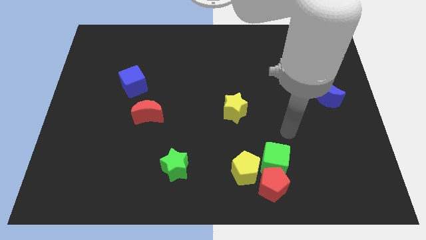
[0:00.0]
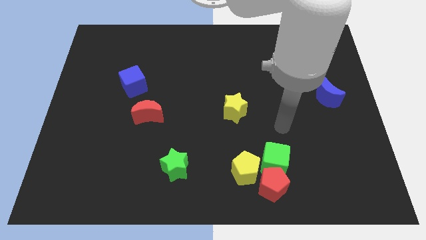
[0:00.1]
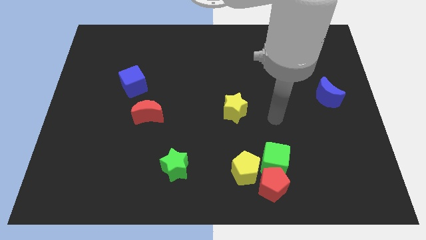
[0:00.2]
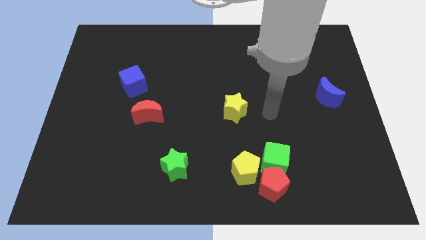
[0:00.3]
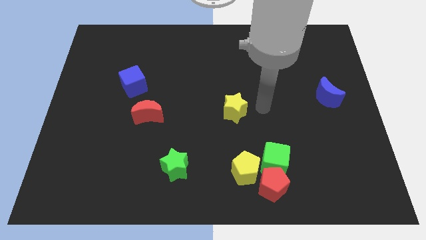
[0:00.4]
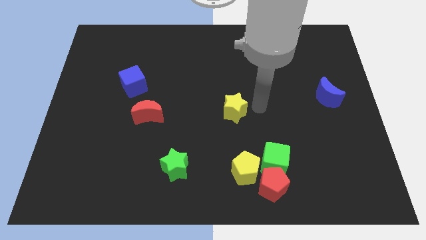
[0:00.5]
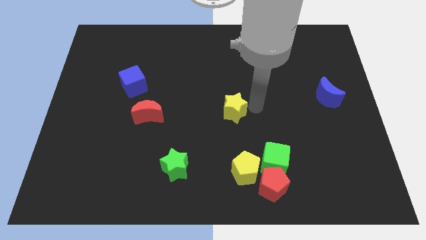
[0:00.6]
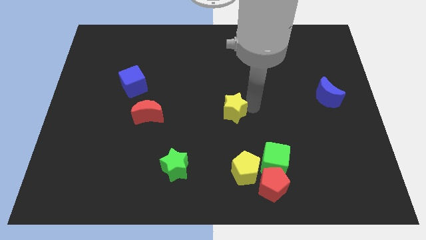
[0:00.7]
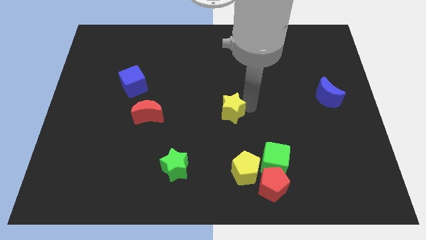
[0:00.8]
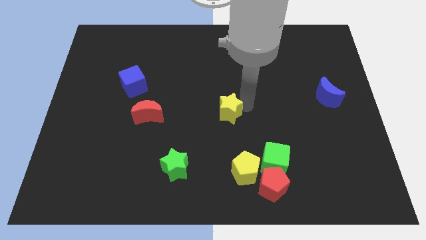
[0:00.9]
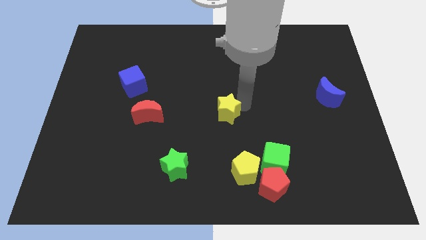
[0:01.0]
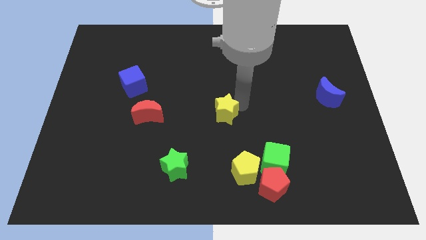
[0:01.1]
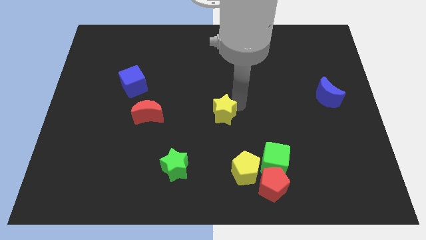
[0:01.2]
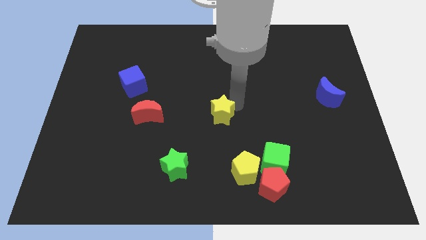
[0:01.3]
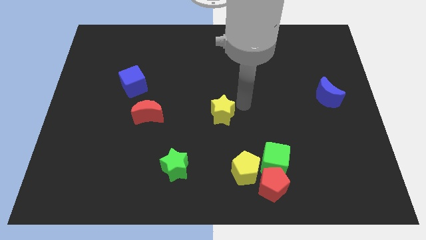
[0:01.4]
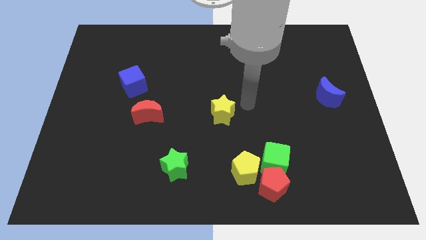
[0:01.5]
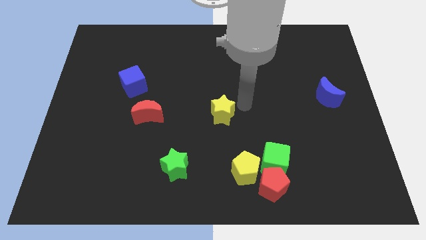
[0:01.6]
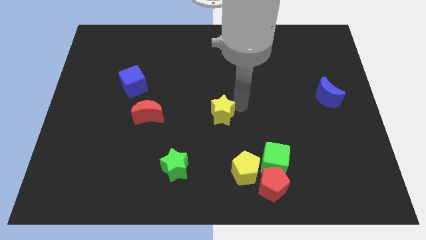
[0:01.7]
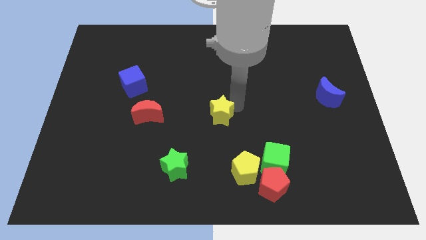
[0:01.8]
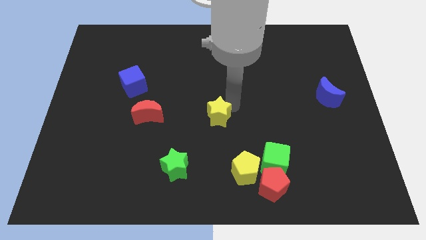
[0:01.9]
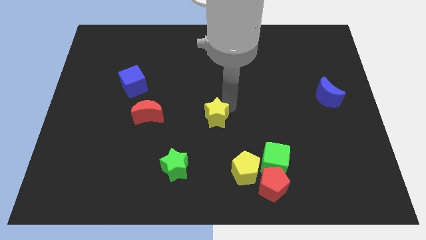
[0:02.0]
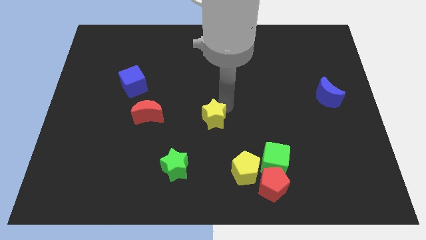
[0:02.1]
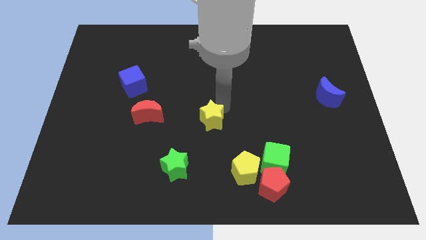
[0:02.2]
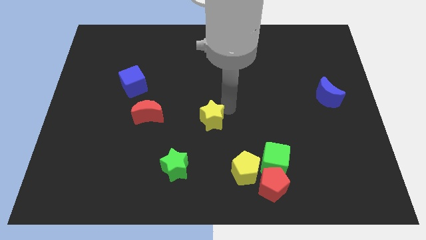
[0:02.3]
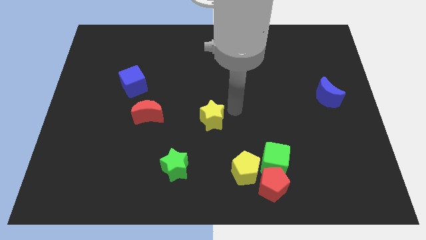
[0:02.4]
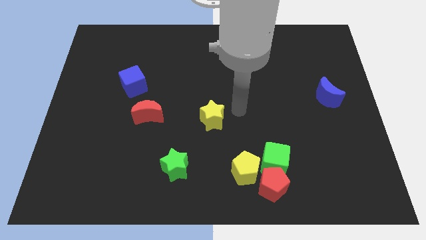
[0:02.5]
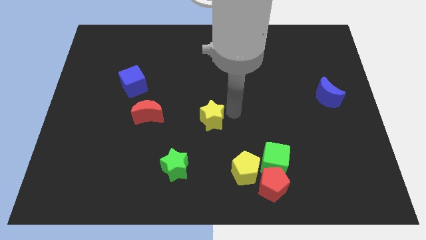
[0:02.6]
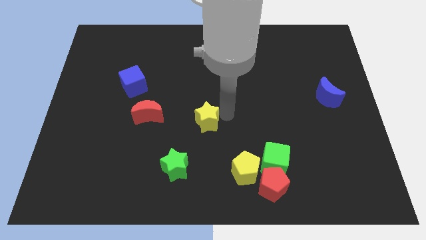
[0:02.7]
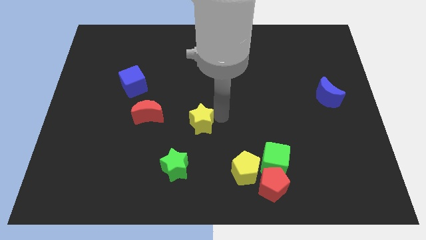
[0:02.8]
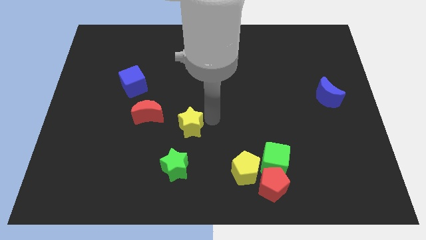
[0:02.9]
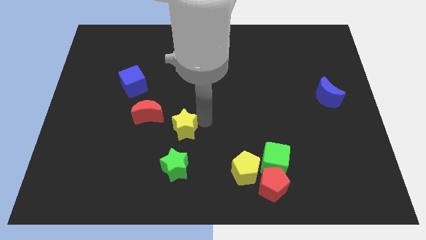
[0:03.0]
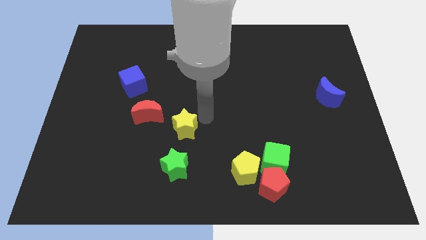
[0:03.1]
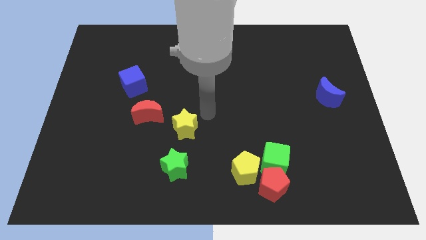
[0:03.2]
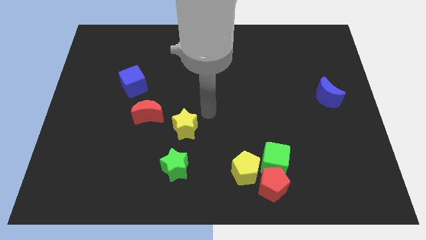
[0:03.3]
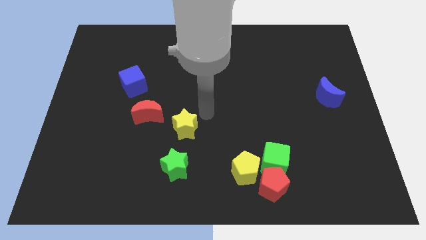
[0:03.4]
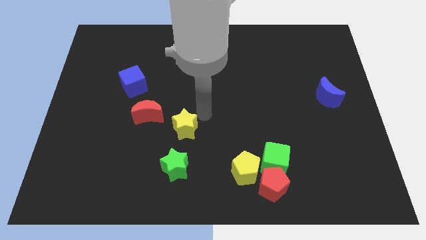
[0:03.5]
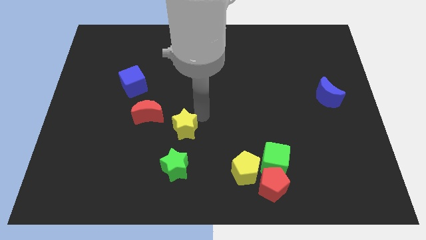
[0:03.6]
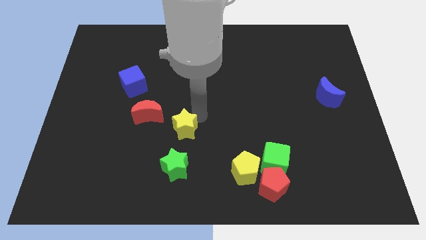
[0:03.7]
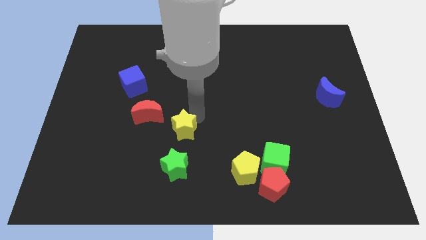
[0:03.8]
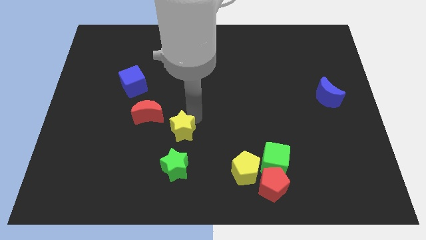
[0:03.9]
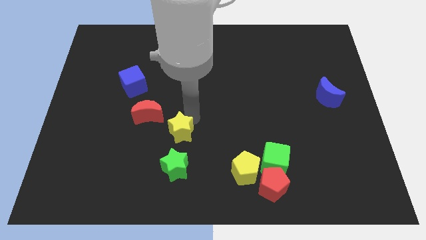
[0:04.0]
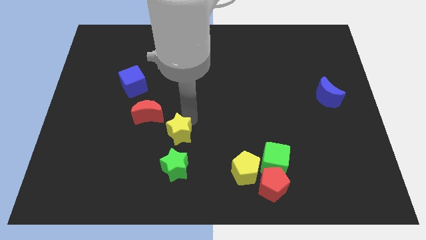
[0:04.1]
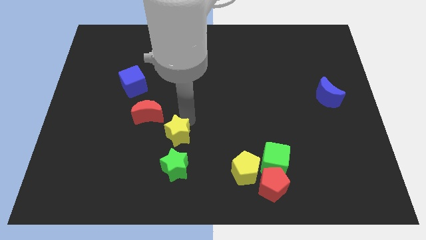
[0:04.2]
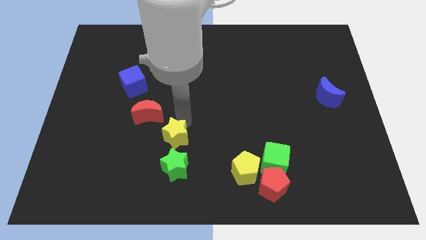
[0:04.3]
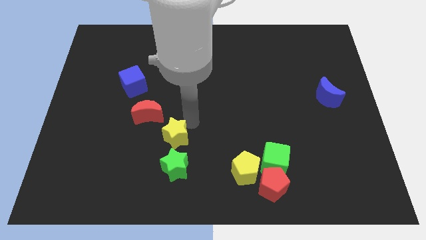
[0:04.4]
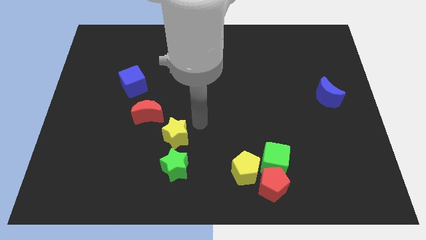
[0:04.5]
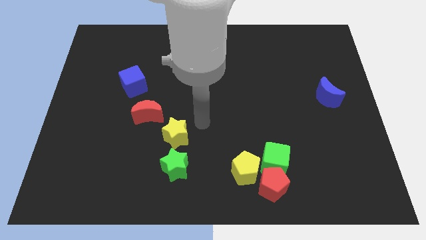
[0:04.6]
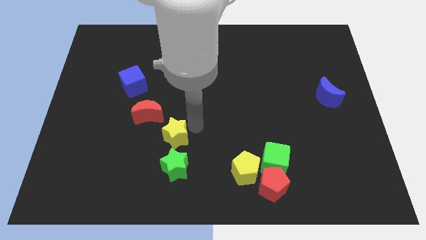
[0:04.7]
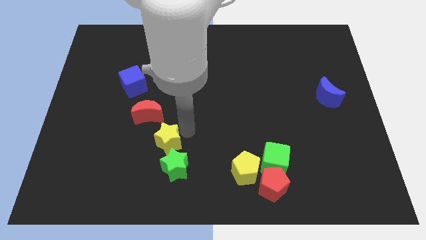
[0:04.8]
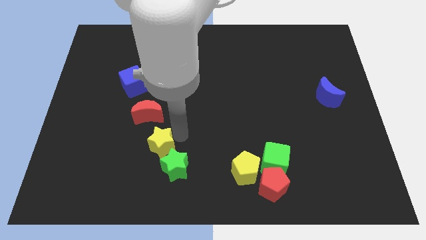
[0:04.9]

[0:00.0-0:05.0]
slide the yellow star below the red moon

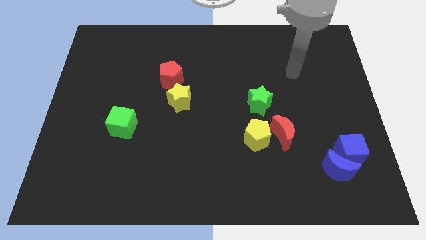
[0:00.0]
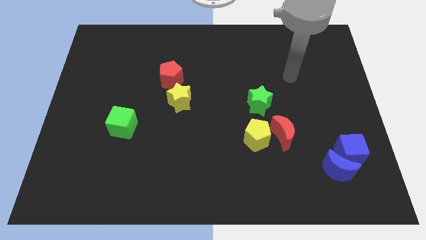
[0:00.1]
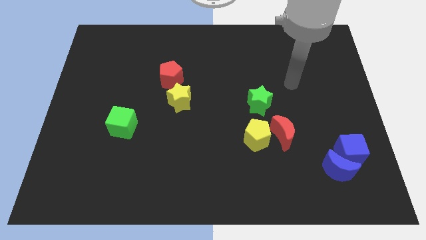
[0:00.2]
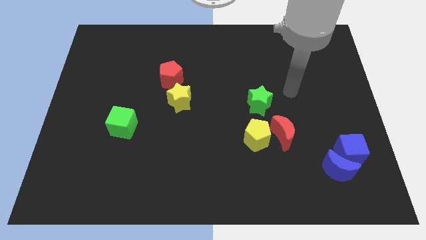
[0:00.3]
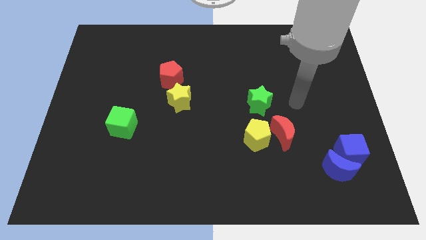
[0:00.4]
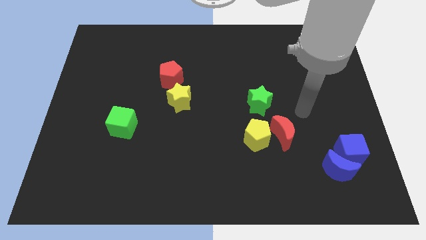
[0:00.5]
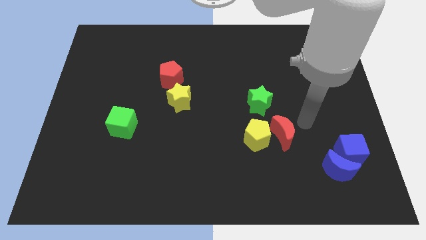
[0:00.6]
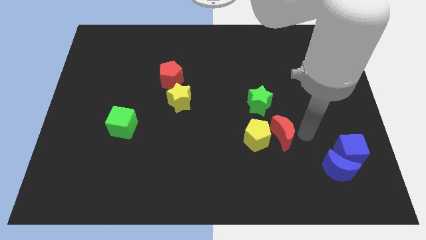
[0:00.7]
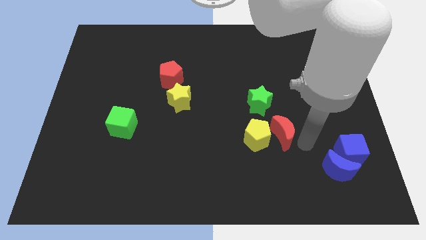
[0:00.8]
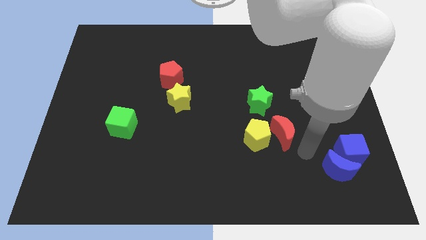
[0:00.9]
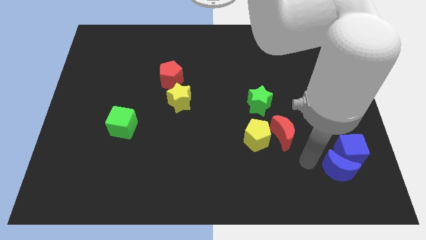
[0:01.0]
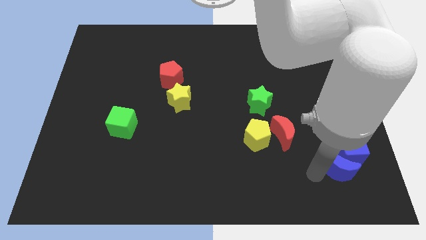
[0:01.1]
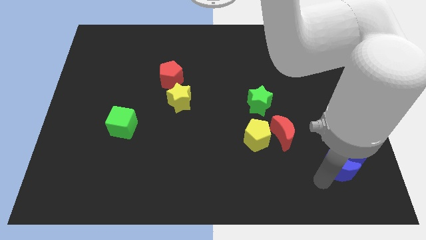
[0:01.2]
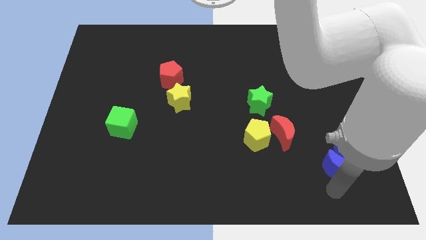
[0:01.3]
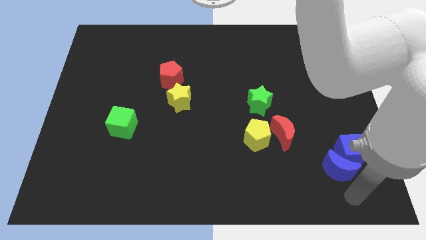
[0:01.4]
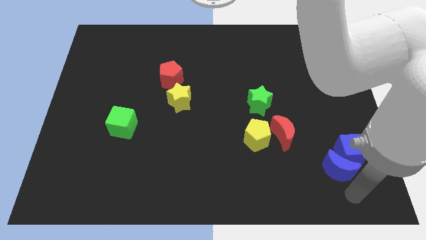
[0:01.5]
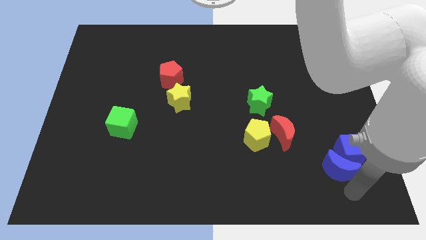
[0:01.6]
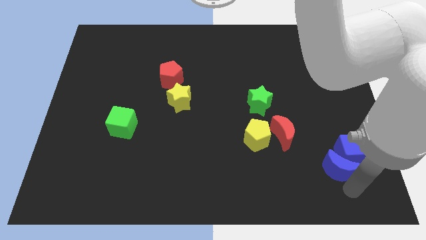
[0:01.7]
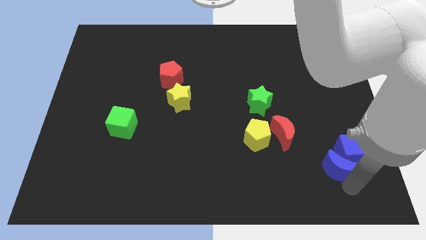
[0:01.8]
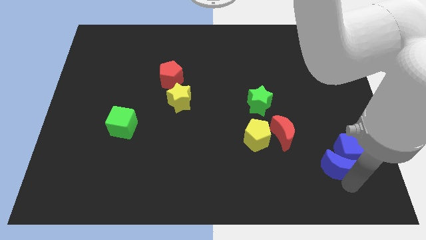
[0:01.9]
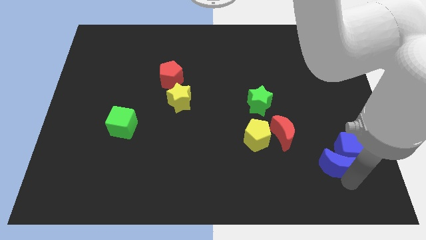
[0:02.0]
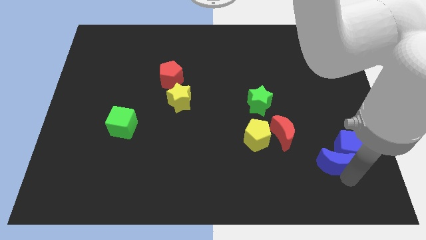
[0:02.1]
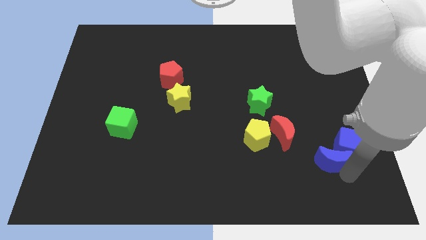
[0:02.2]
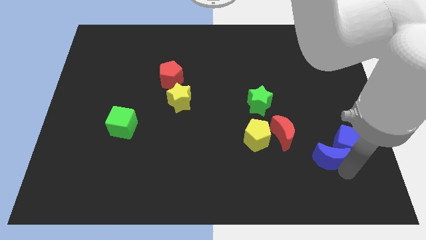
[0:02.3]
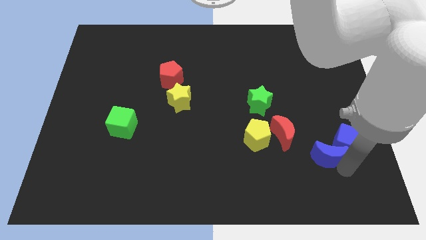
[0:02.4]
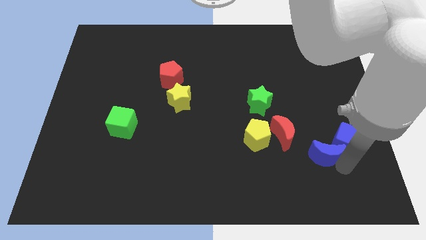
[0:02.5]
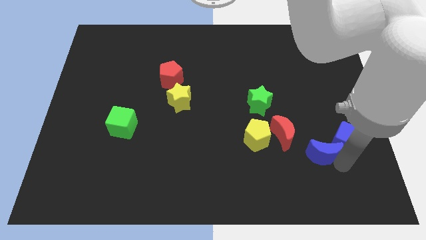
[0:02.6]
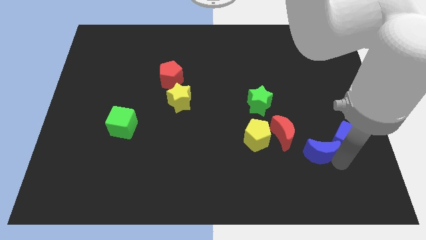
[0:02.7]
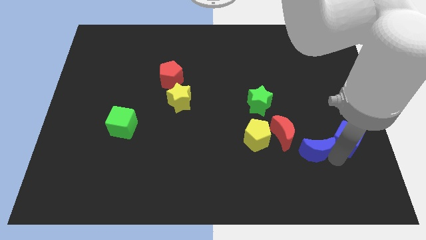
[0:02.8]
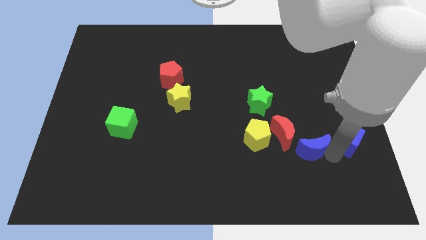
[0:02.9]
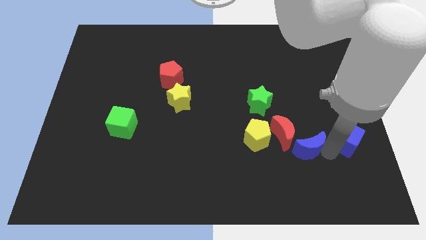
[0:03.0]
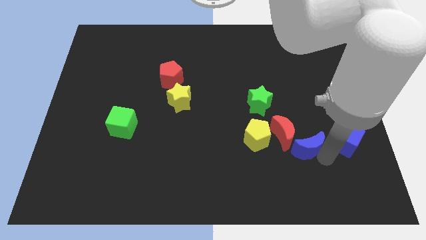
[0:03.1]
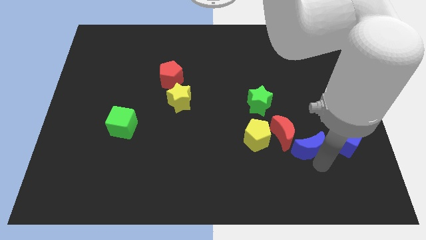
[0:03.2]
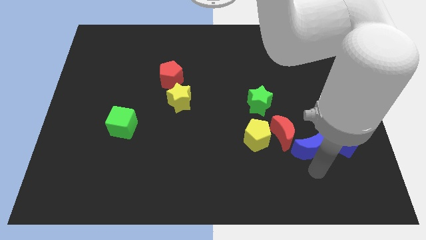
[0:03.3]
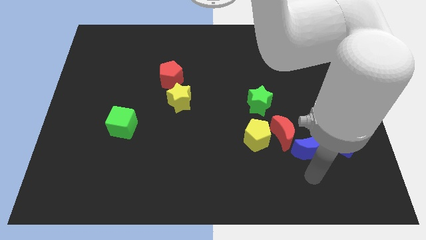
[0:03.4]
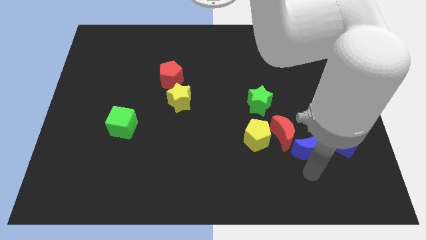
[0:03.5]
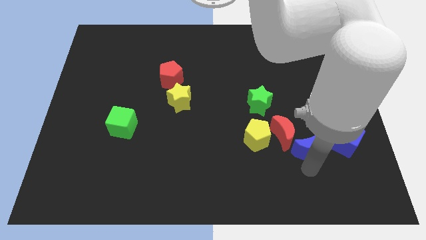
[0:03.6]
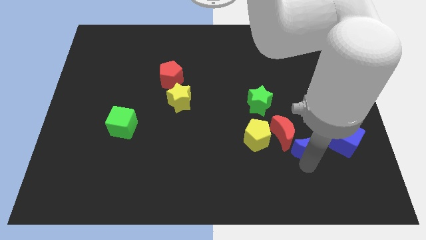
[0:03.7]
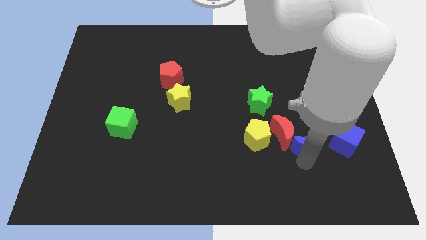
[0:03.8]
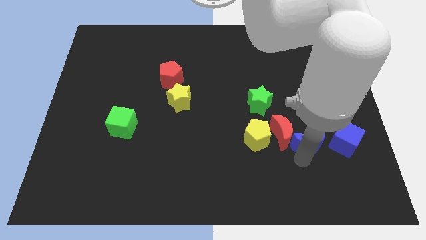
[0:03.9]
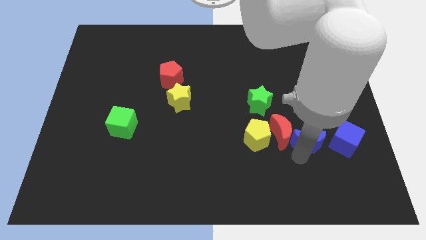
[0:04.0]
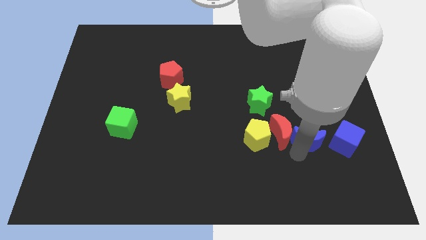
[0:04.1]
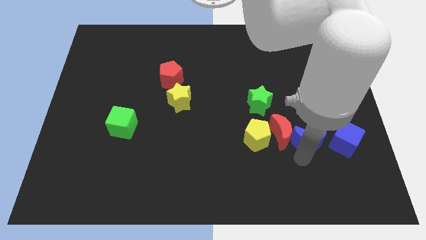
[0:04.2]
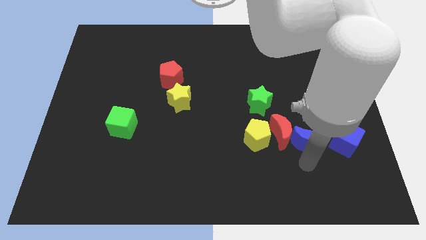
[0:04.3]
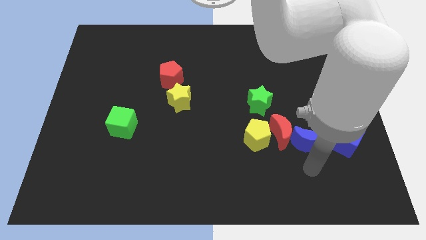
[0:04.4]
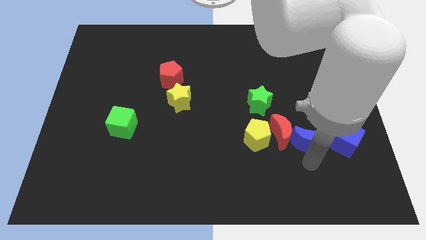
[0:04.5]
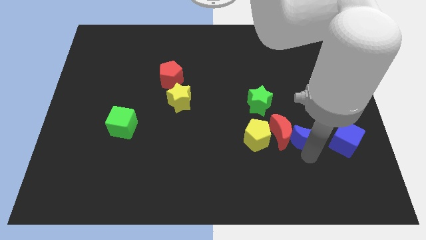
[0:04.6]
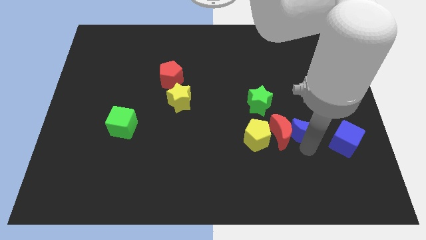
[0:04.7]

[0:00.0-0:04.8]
slide the blue moon to the top right side of the red moon
